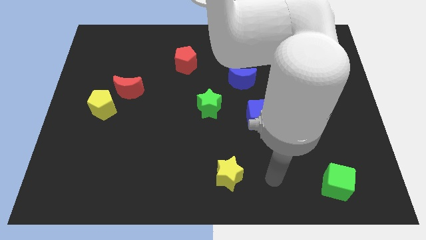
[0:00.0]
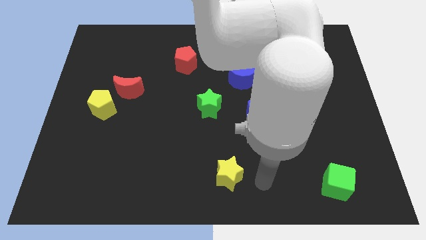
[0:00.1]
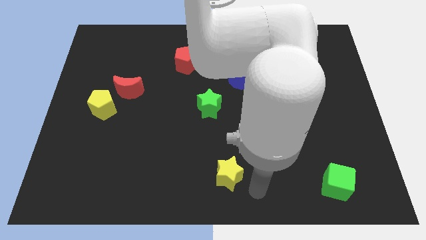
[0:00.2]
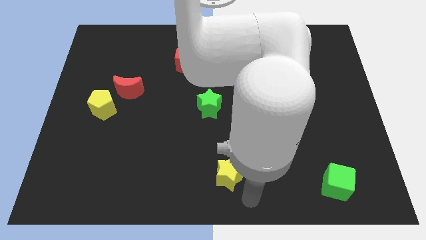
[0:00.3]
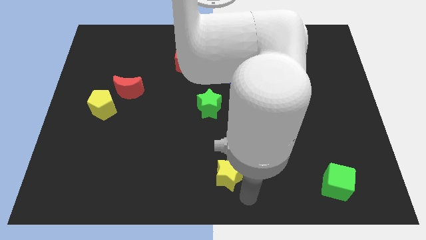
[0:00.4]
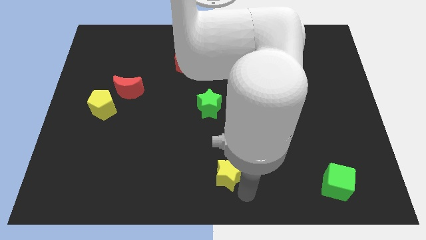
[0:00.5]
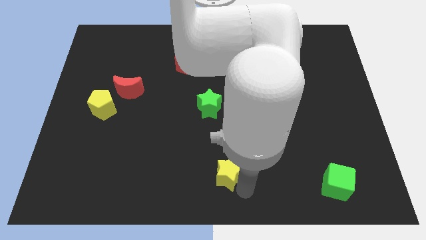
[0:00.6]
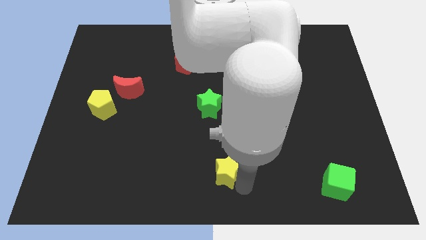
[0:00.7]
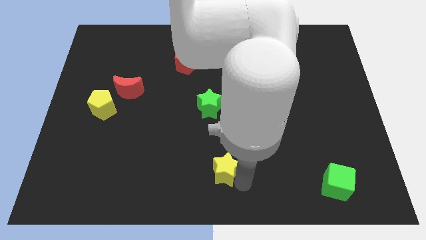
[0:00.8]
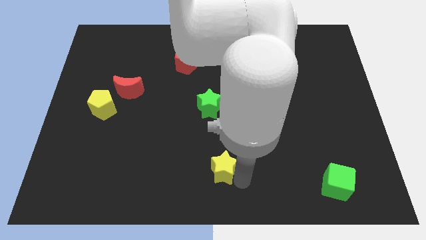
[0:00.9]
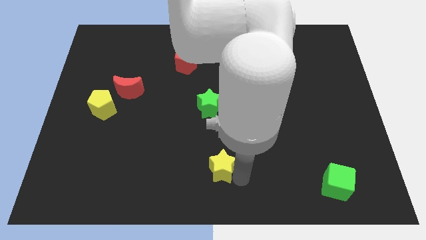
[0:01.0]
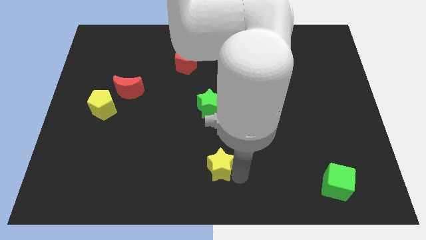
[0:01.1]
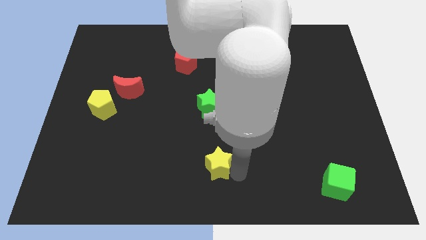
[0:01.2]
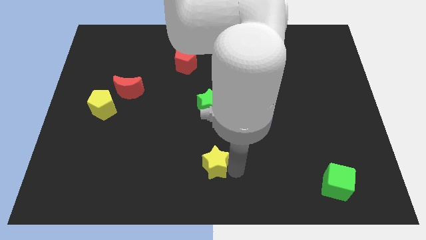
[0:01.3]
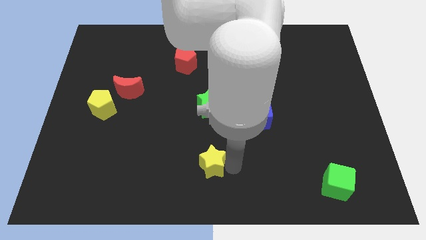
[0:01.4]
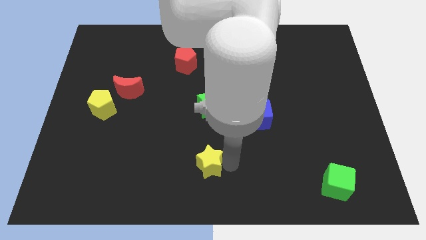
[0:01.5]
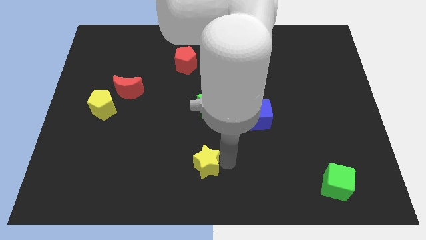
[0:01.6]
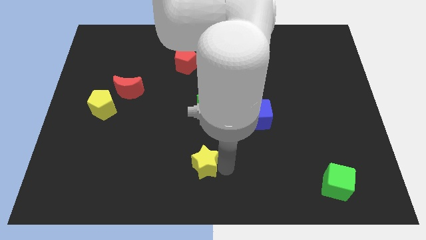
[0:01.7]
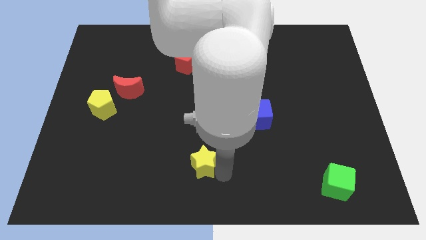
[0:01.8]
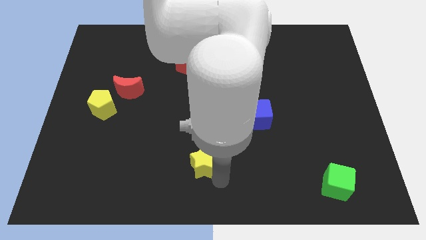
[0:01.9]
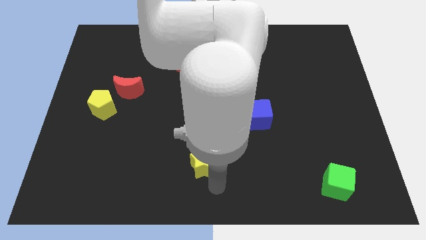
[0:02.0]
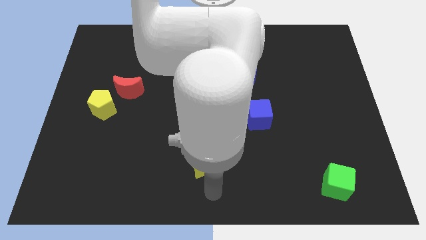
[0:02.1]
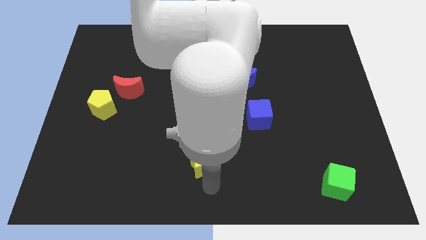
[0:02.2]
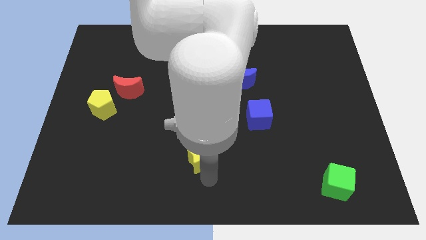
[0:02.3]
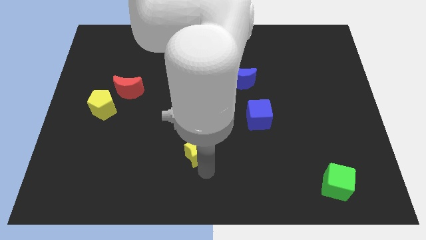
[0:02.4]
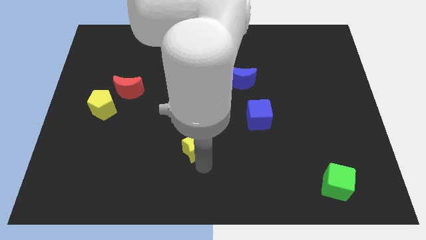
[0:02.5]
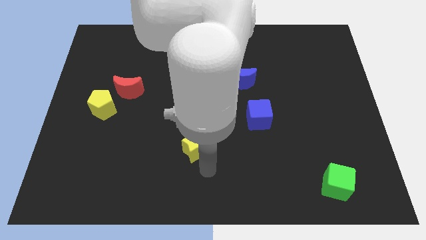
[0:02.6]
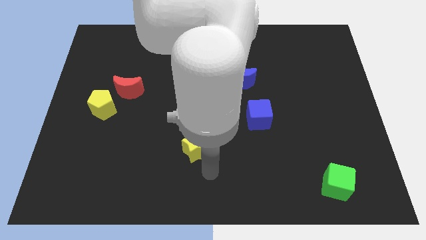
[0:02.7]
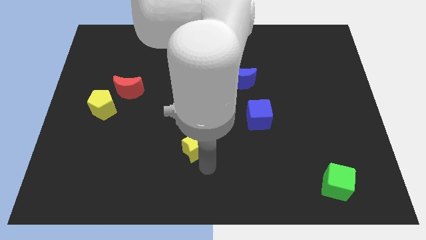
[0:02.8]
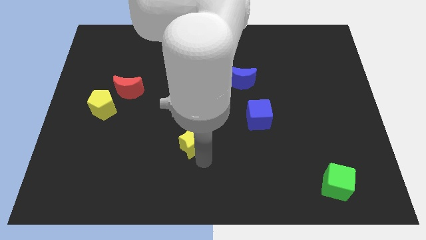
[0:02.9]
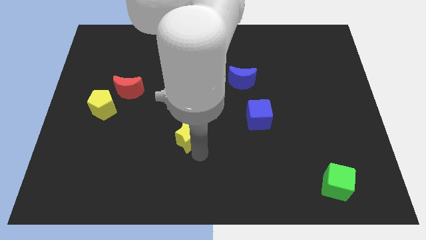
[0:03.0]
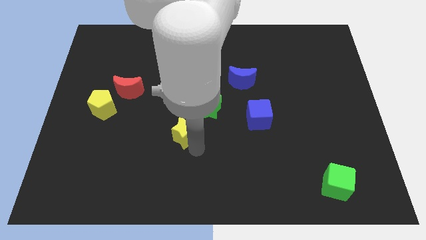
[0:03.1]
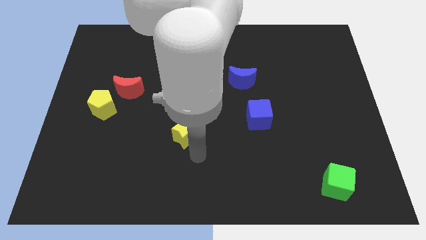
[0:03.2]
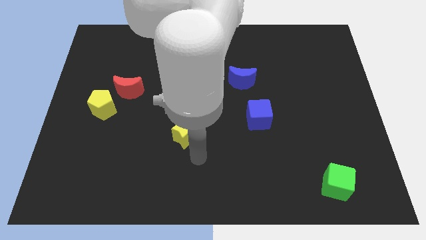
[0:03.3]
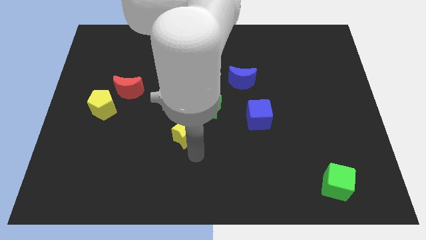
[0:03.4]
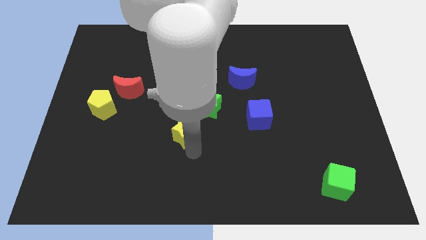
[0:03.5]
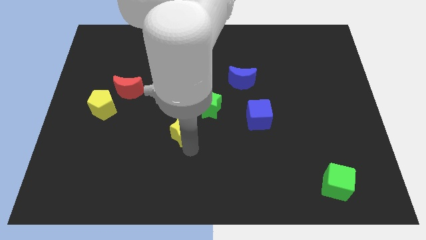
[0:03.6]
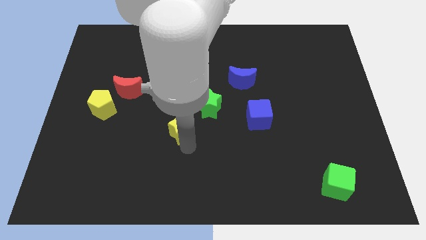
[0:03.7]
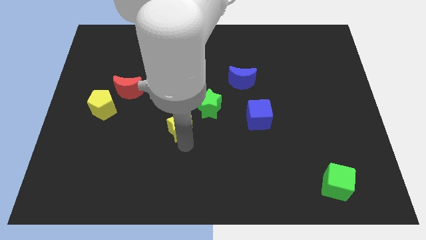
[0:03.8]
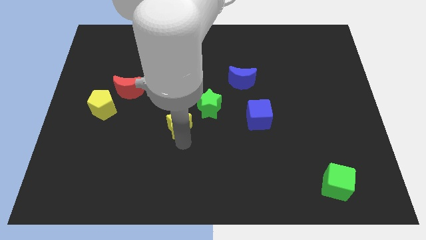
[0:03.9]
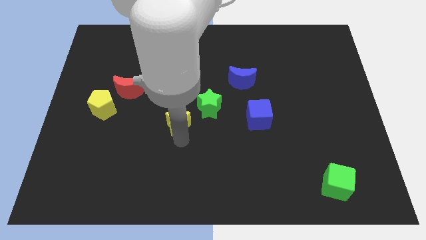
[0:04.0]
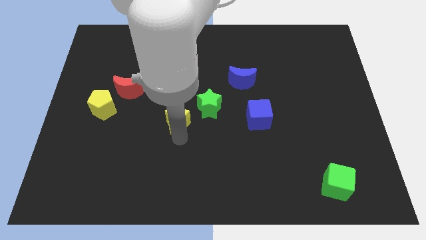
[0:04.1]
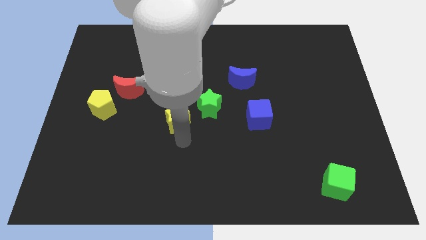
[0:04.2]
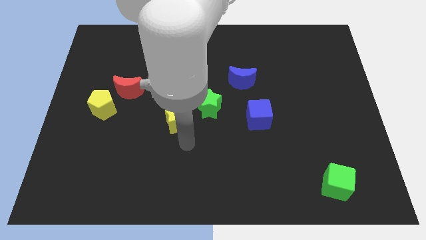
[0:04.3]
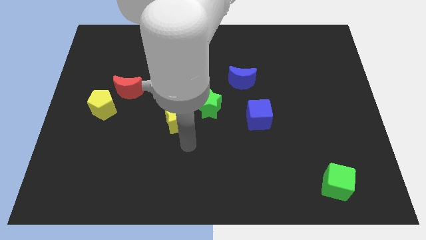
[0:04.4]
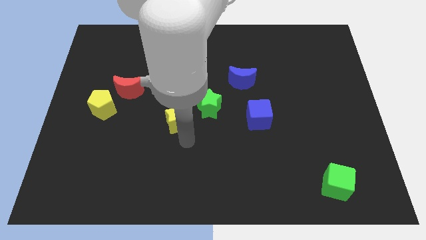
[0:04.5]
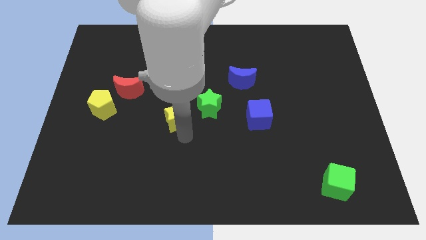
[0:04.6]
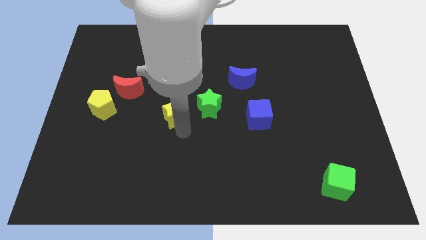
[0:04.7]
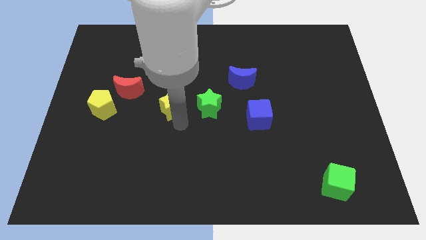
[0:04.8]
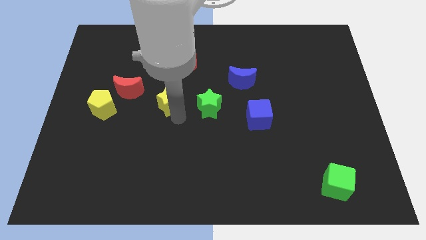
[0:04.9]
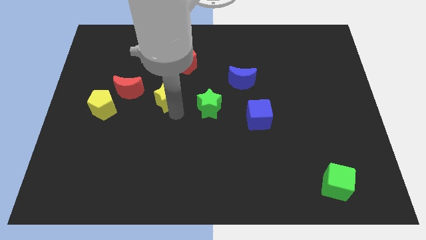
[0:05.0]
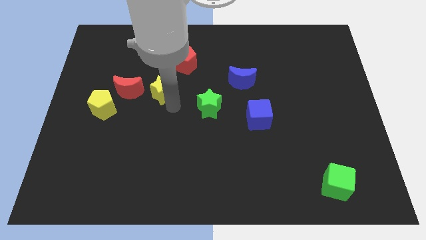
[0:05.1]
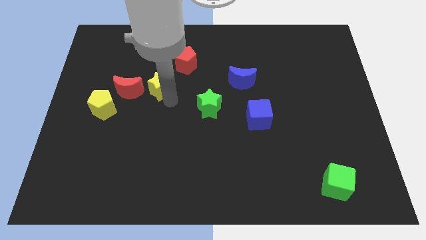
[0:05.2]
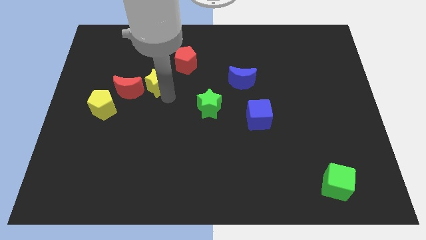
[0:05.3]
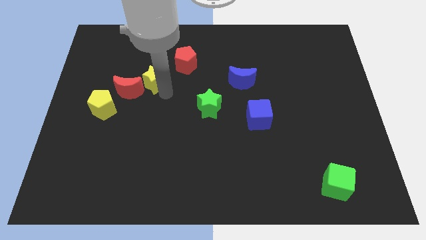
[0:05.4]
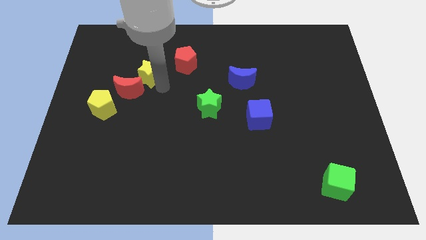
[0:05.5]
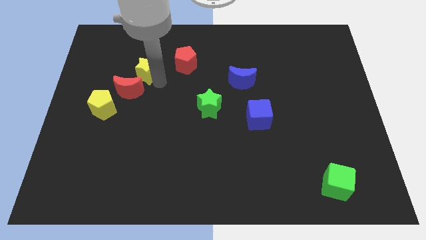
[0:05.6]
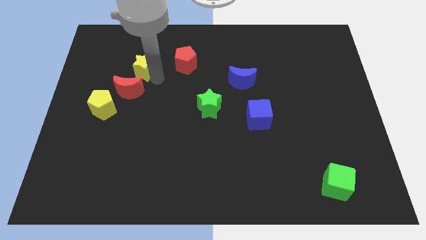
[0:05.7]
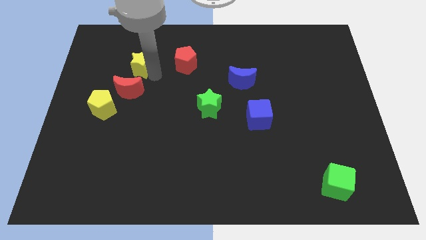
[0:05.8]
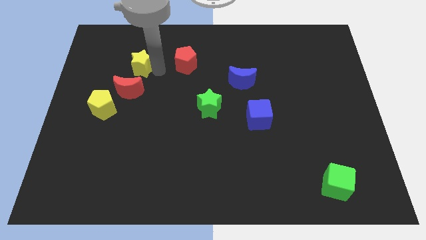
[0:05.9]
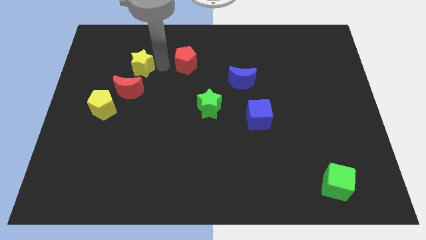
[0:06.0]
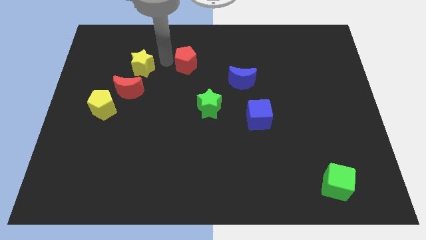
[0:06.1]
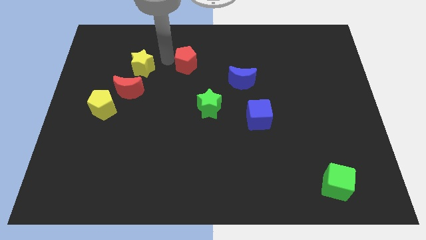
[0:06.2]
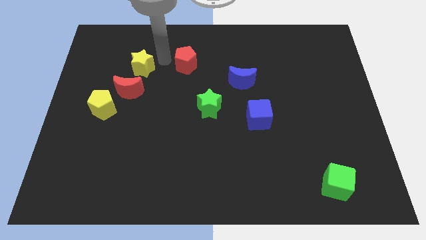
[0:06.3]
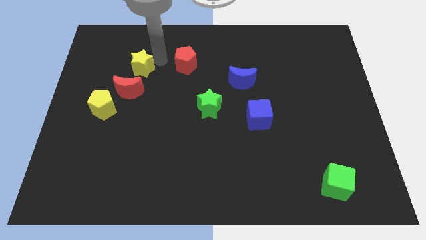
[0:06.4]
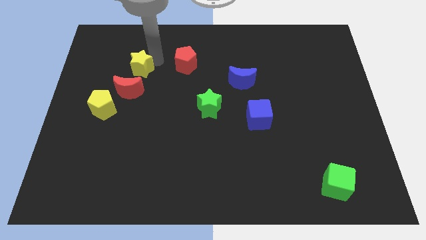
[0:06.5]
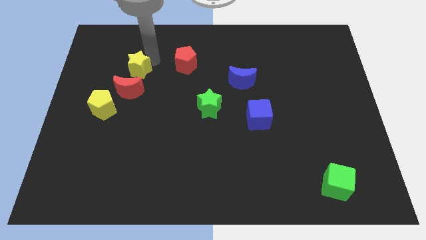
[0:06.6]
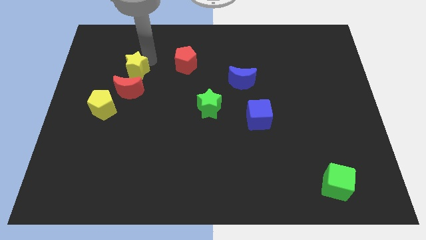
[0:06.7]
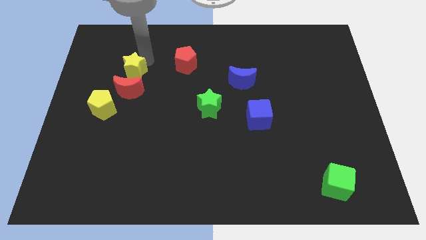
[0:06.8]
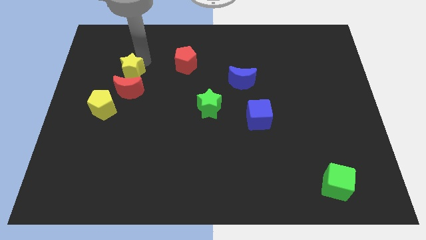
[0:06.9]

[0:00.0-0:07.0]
push the yellow star to the top left of the red moon
